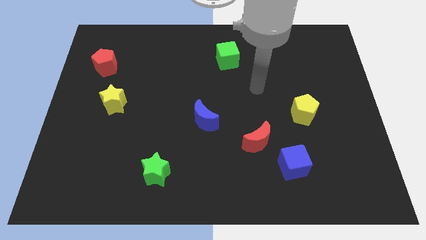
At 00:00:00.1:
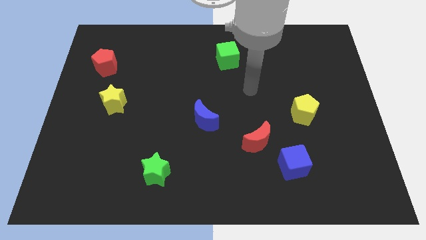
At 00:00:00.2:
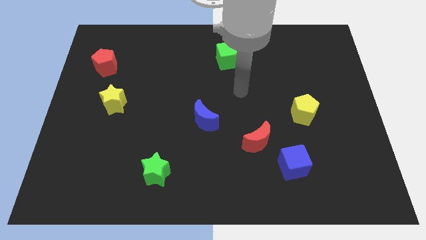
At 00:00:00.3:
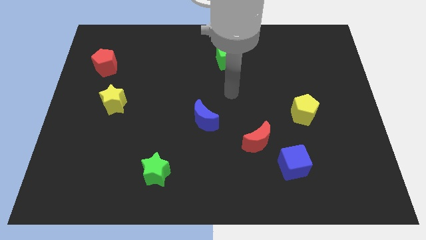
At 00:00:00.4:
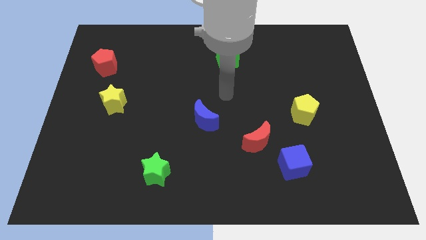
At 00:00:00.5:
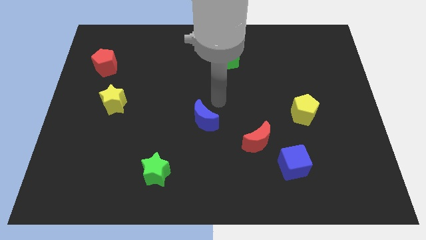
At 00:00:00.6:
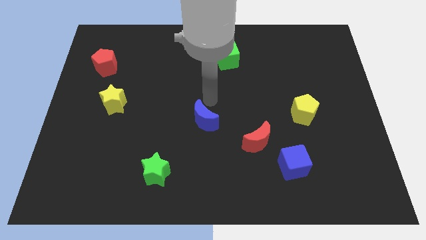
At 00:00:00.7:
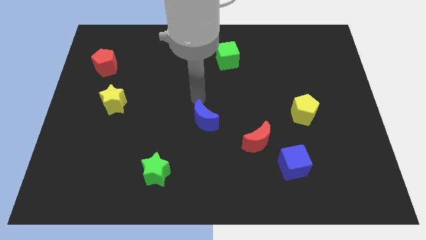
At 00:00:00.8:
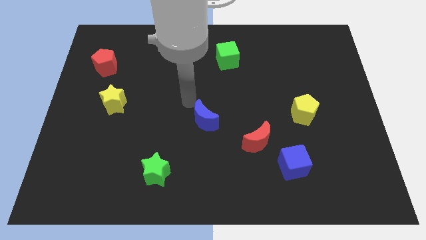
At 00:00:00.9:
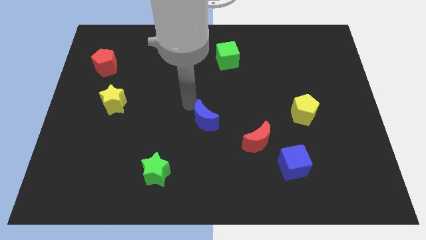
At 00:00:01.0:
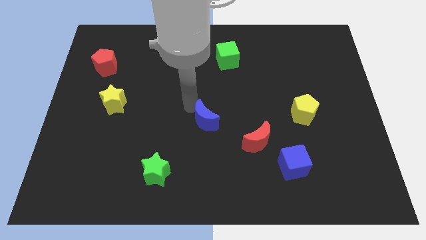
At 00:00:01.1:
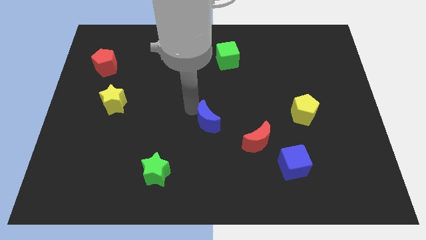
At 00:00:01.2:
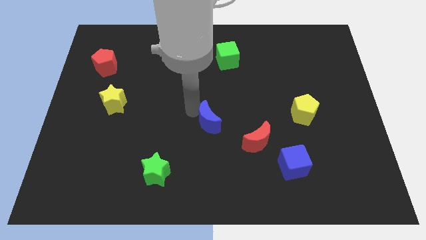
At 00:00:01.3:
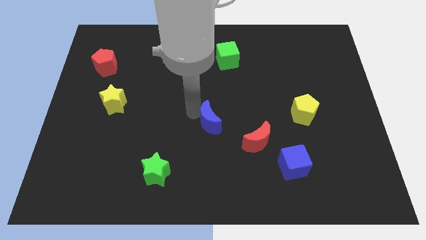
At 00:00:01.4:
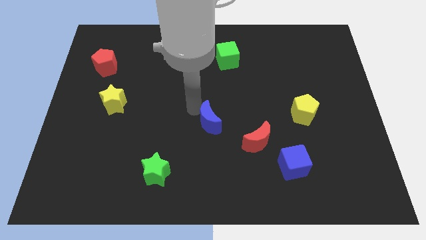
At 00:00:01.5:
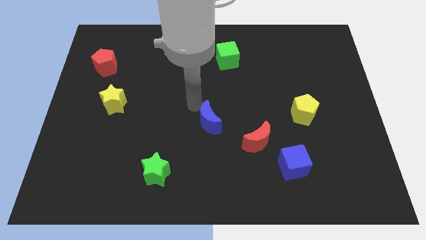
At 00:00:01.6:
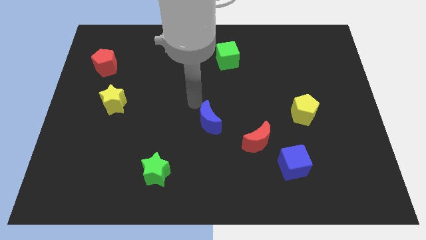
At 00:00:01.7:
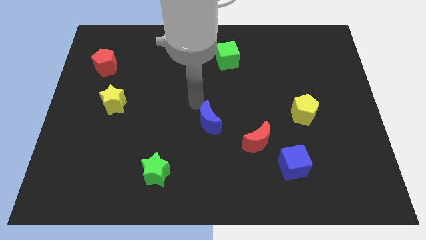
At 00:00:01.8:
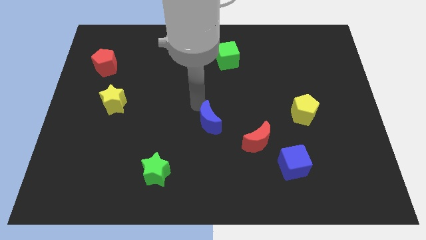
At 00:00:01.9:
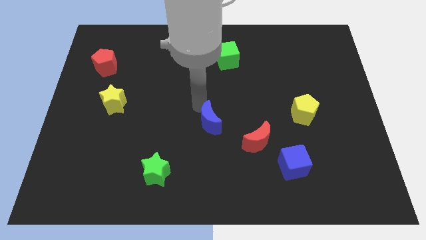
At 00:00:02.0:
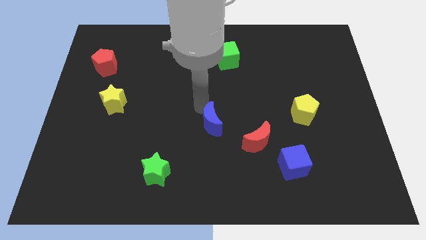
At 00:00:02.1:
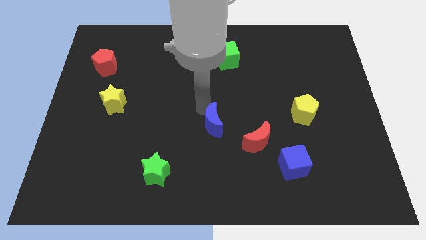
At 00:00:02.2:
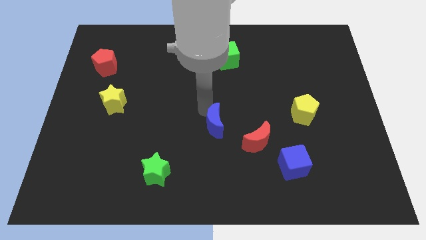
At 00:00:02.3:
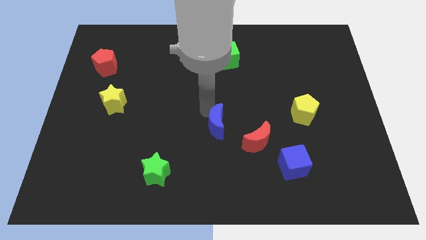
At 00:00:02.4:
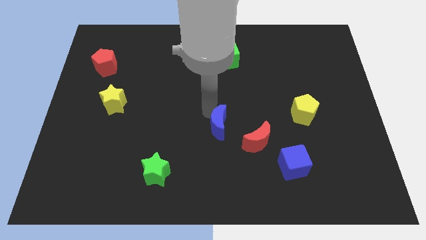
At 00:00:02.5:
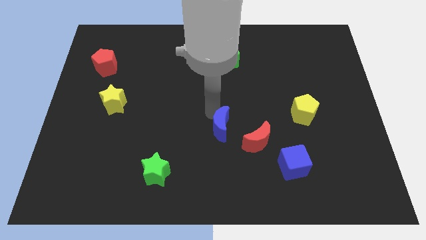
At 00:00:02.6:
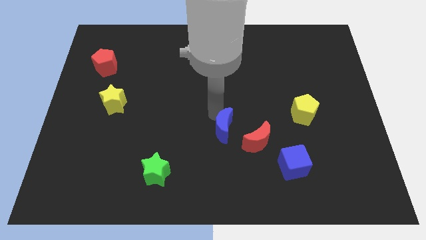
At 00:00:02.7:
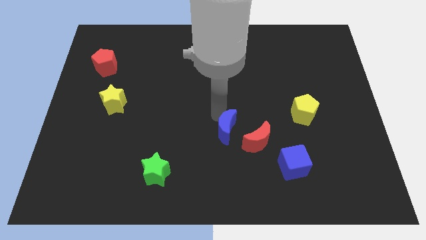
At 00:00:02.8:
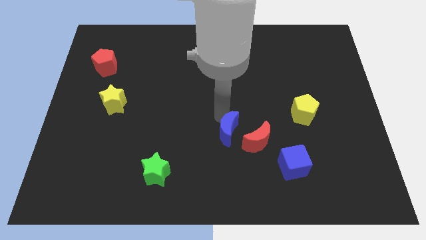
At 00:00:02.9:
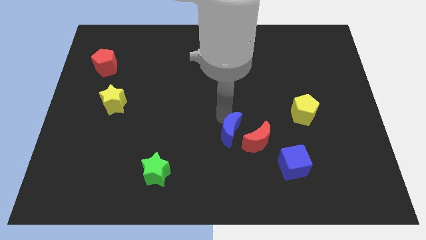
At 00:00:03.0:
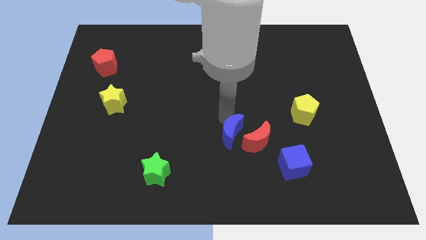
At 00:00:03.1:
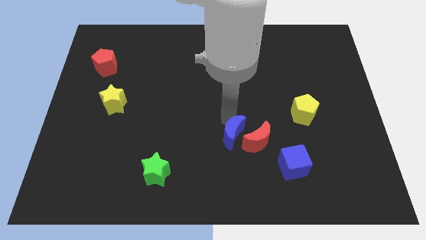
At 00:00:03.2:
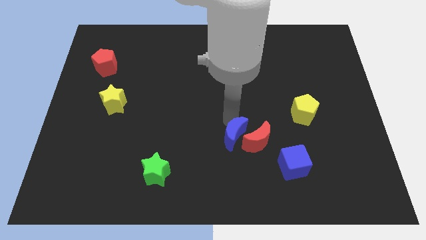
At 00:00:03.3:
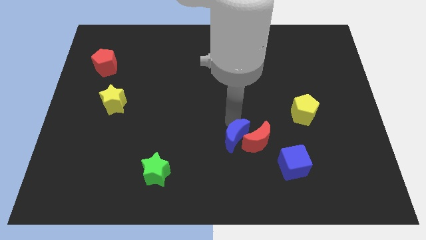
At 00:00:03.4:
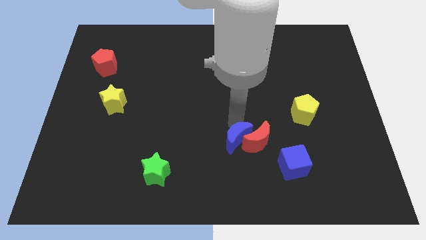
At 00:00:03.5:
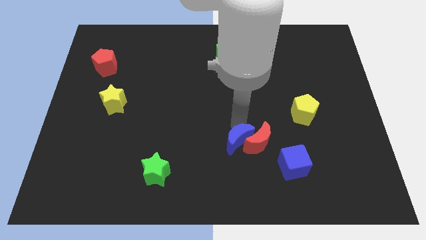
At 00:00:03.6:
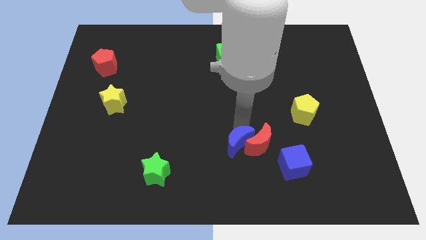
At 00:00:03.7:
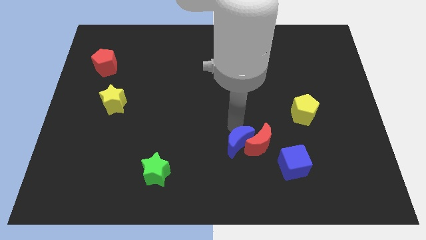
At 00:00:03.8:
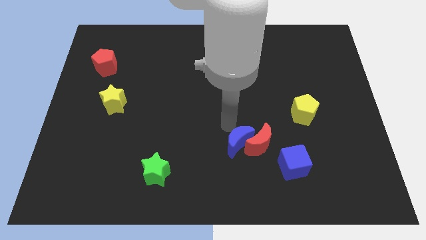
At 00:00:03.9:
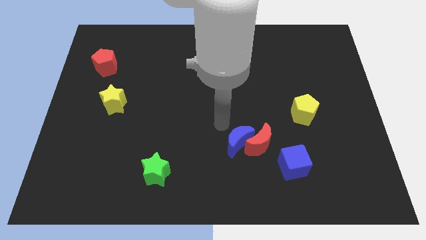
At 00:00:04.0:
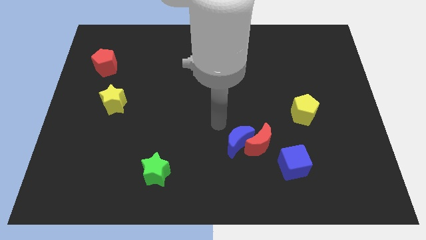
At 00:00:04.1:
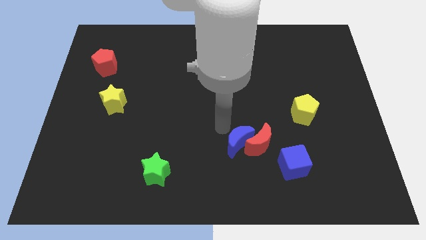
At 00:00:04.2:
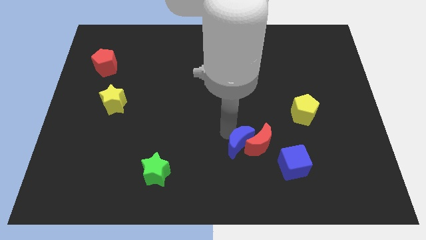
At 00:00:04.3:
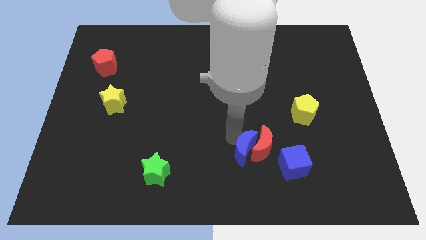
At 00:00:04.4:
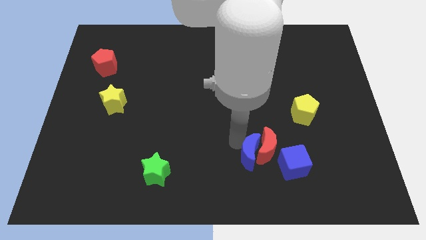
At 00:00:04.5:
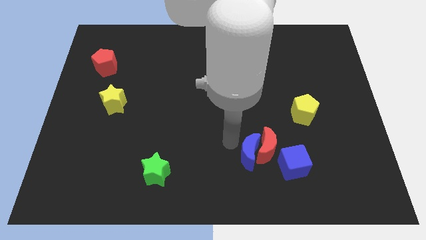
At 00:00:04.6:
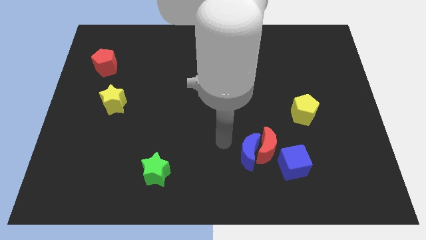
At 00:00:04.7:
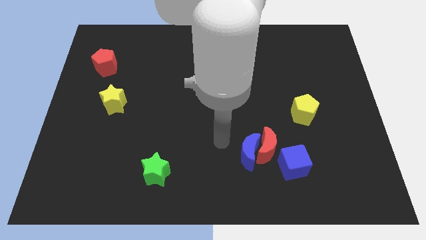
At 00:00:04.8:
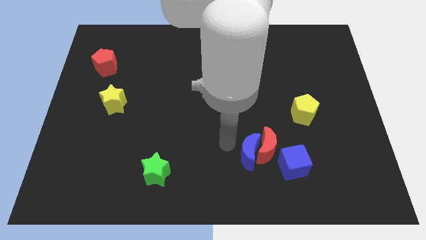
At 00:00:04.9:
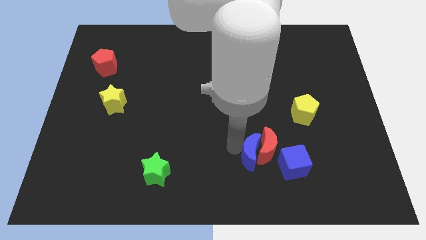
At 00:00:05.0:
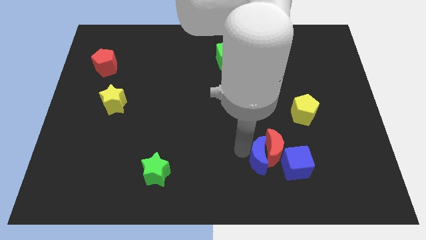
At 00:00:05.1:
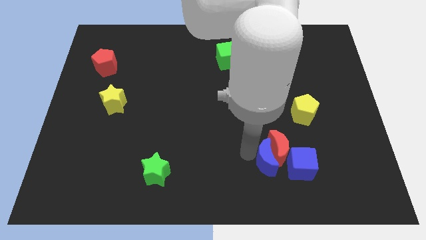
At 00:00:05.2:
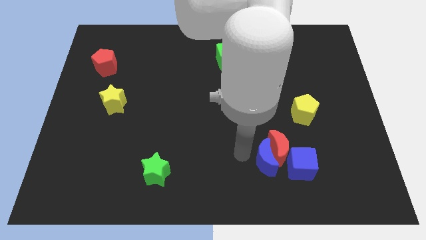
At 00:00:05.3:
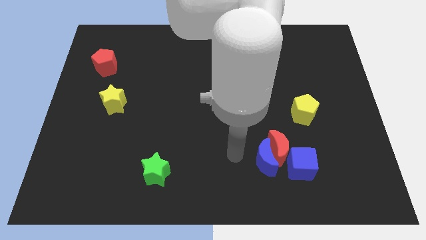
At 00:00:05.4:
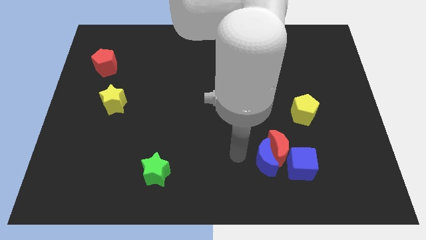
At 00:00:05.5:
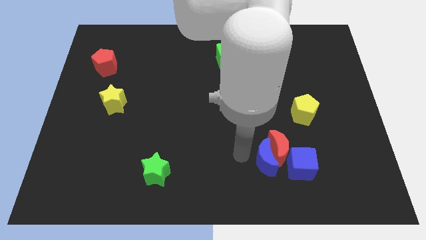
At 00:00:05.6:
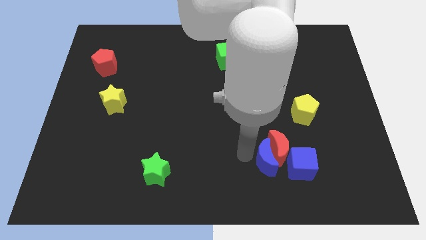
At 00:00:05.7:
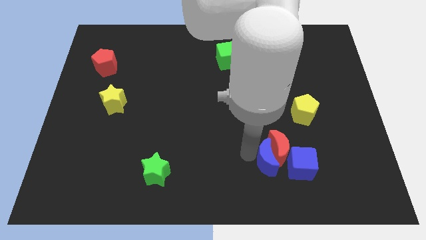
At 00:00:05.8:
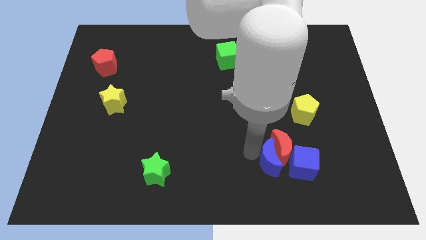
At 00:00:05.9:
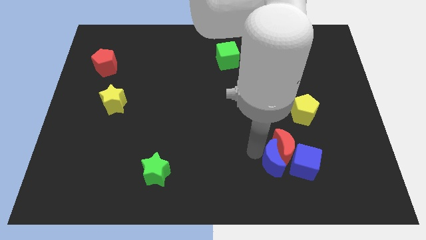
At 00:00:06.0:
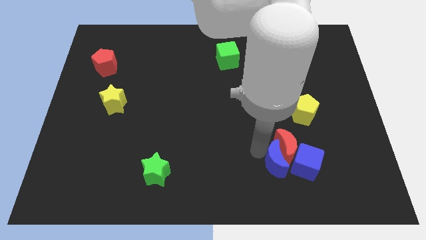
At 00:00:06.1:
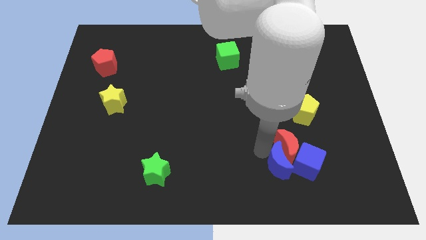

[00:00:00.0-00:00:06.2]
slide the blue moon next to the blue cube

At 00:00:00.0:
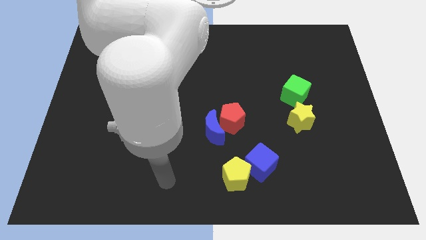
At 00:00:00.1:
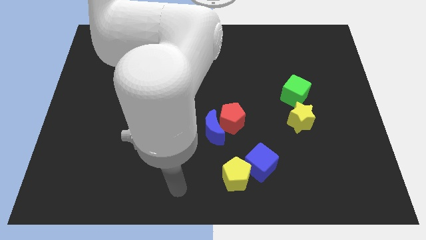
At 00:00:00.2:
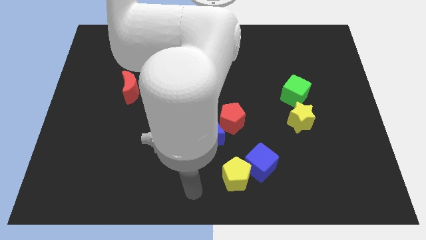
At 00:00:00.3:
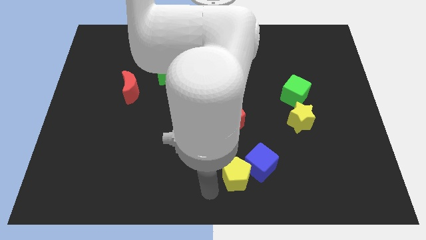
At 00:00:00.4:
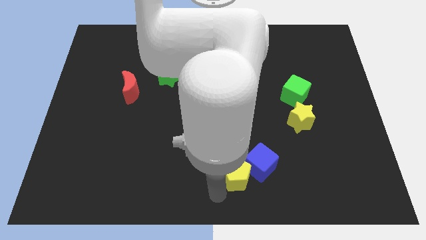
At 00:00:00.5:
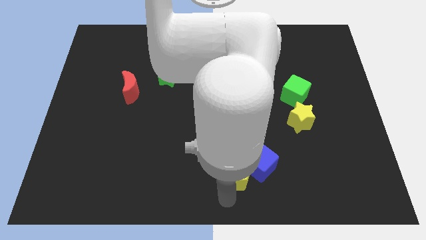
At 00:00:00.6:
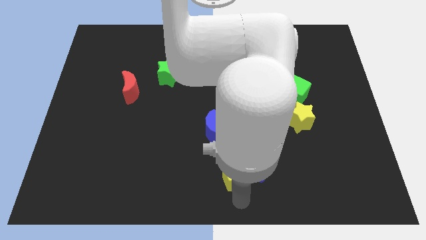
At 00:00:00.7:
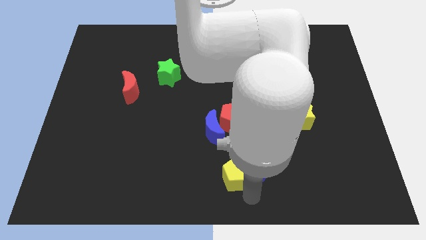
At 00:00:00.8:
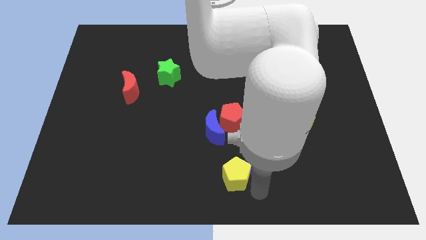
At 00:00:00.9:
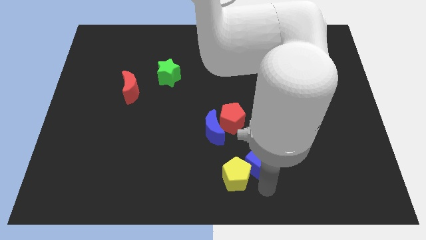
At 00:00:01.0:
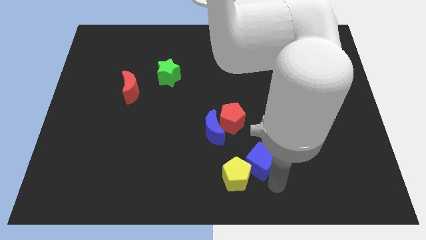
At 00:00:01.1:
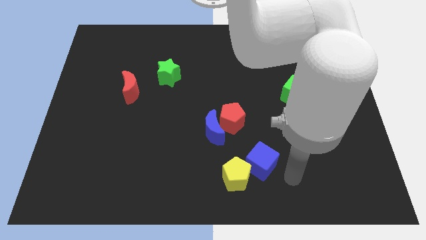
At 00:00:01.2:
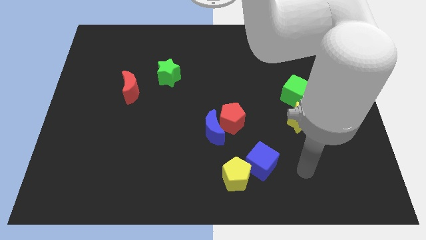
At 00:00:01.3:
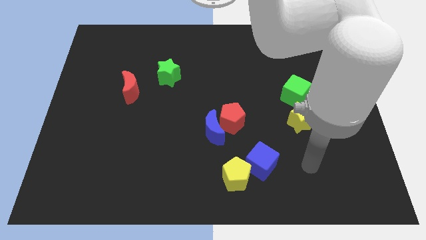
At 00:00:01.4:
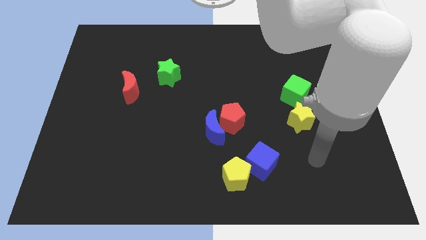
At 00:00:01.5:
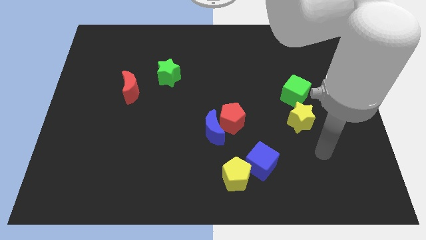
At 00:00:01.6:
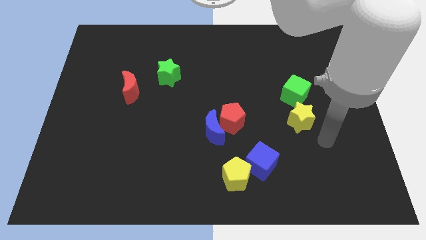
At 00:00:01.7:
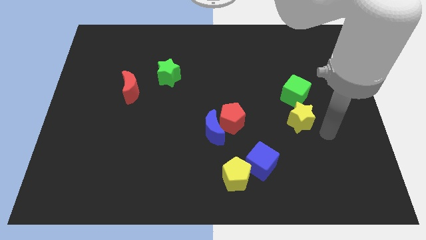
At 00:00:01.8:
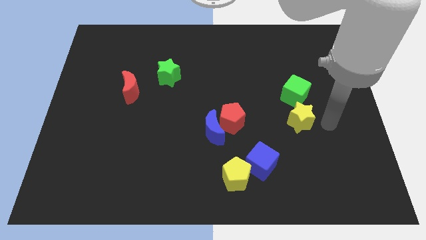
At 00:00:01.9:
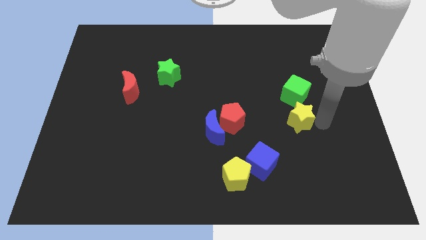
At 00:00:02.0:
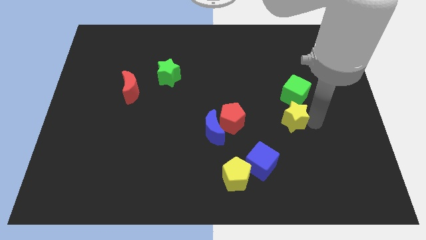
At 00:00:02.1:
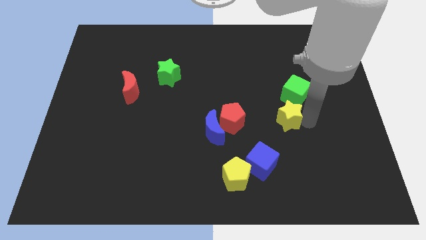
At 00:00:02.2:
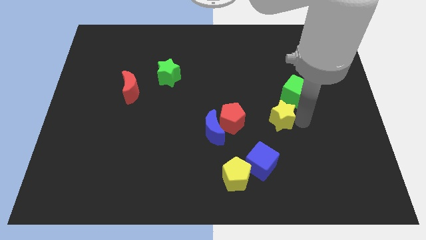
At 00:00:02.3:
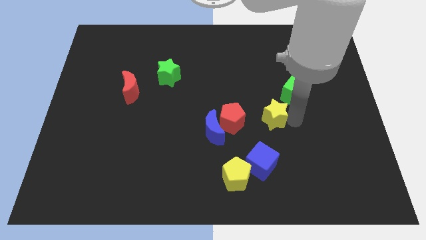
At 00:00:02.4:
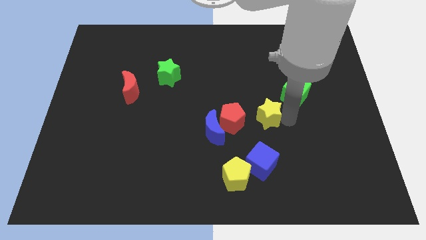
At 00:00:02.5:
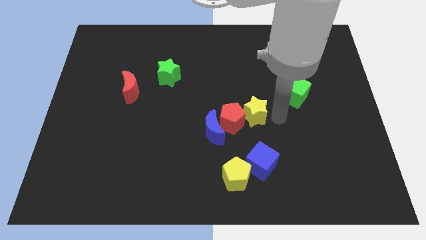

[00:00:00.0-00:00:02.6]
slide the yellow star to the red pentagon
